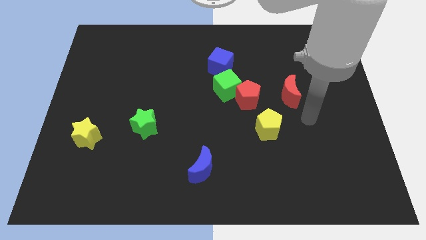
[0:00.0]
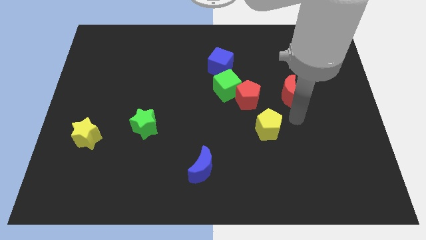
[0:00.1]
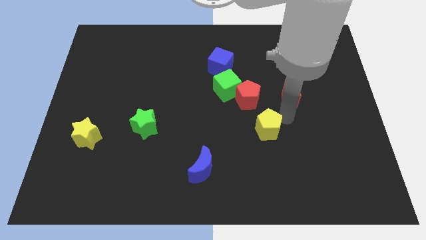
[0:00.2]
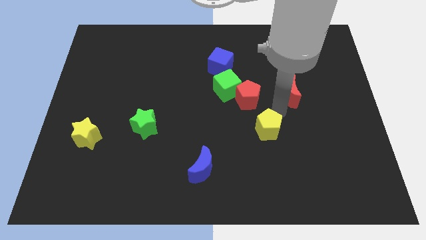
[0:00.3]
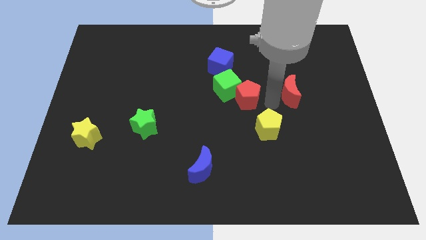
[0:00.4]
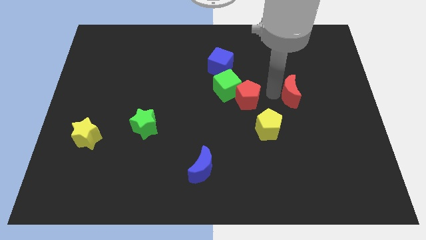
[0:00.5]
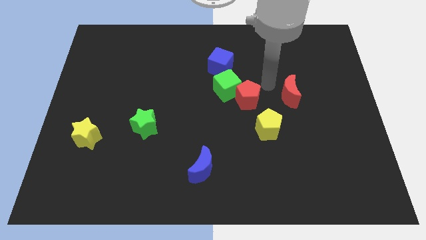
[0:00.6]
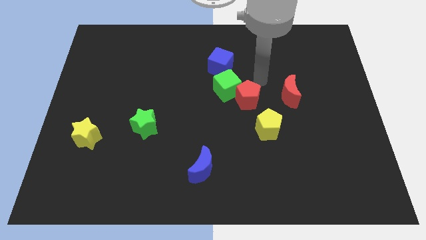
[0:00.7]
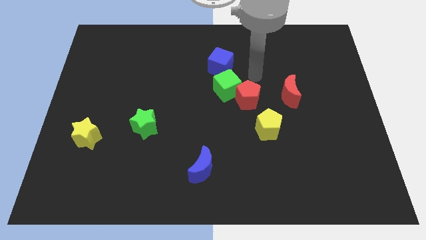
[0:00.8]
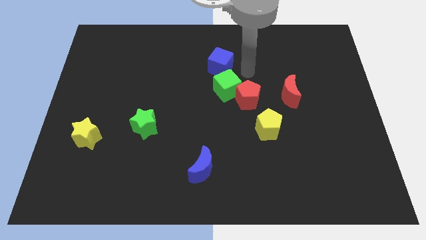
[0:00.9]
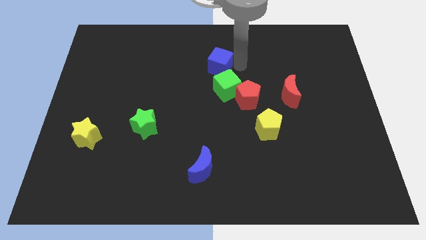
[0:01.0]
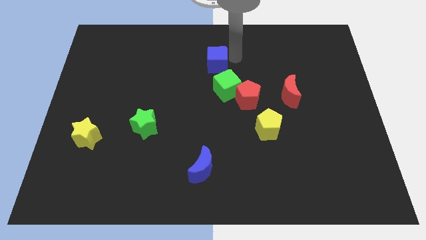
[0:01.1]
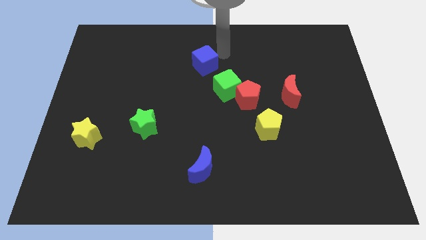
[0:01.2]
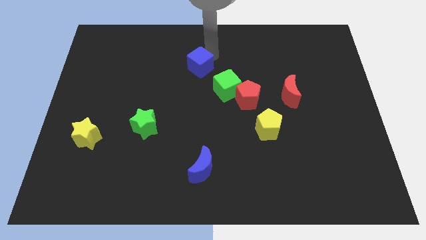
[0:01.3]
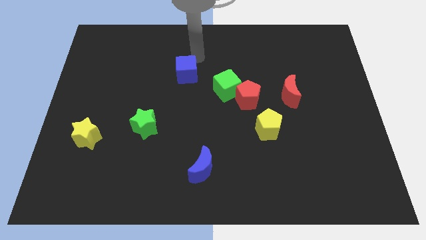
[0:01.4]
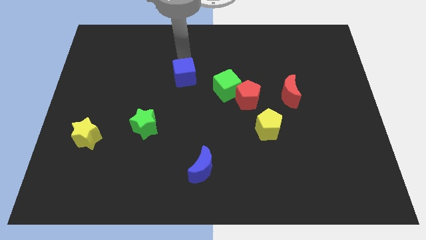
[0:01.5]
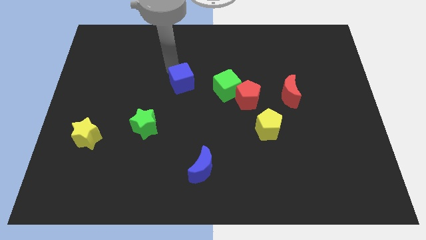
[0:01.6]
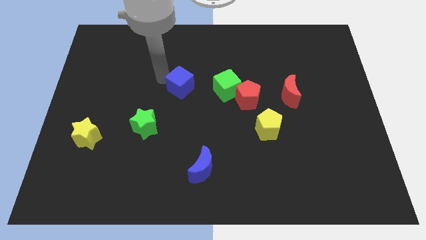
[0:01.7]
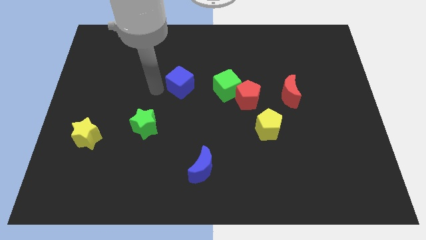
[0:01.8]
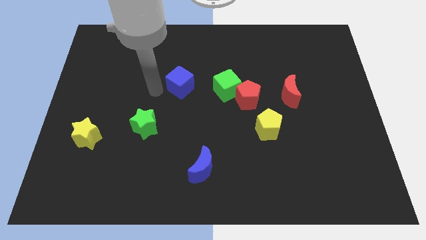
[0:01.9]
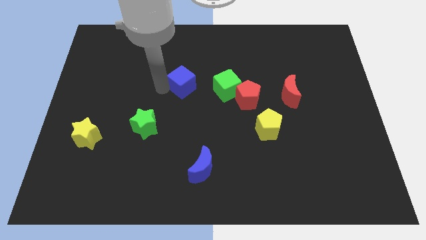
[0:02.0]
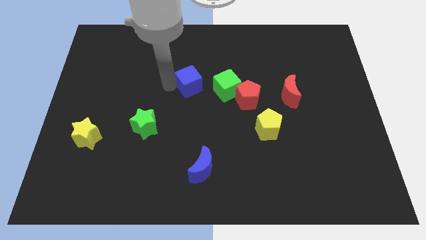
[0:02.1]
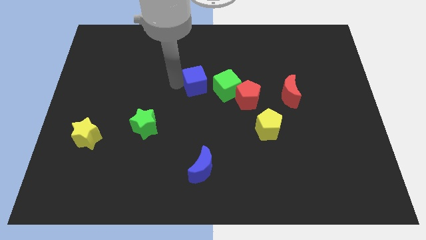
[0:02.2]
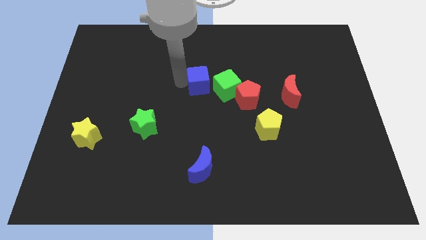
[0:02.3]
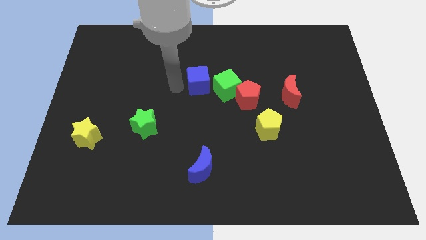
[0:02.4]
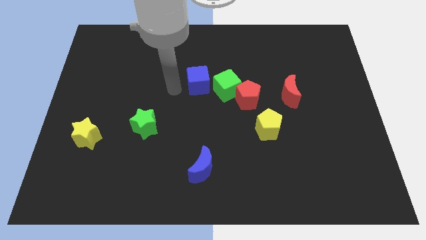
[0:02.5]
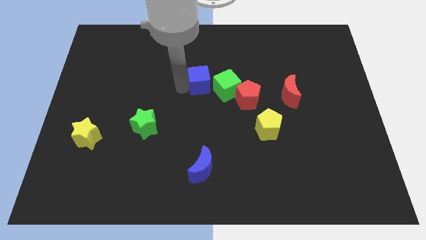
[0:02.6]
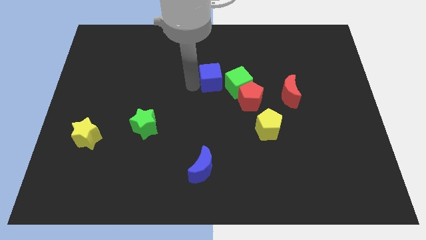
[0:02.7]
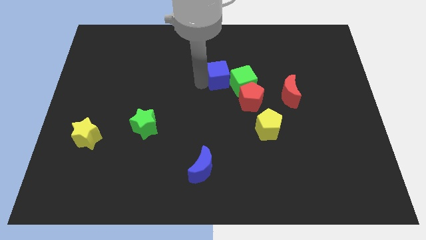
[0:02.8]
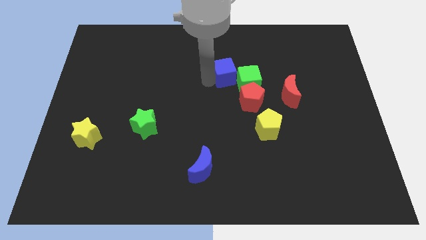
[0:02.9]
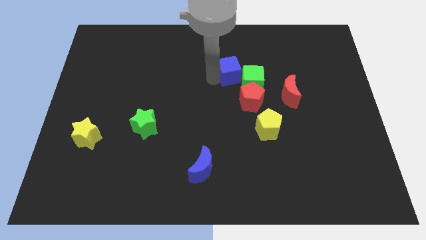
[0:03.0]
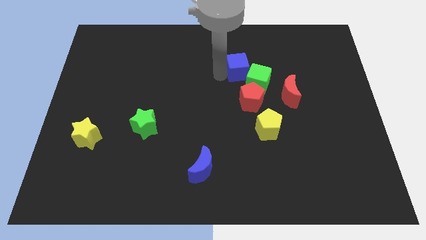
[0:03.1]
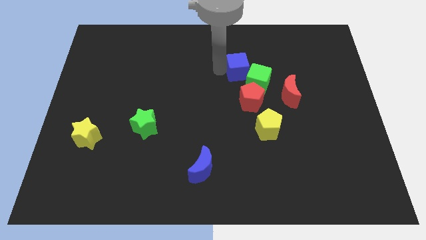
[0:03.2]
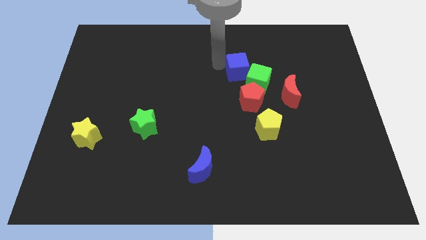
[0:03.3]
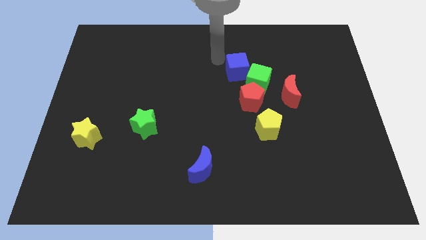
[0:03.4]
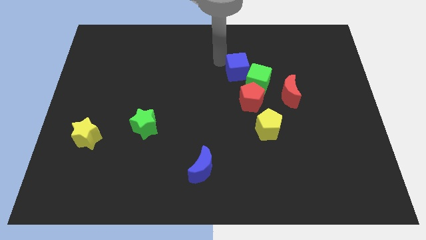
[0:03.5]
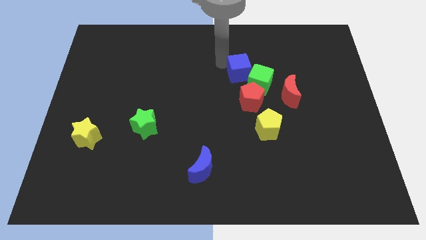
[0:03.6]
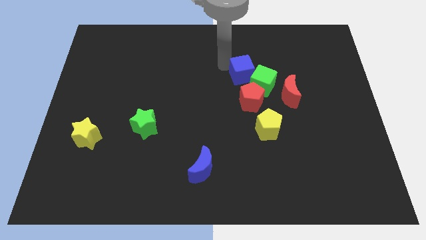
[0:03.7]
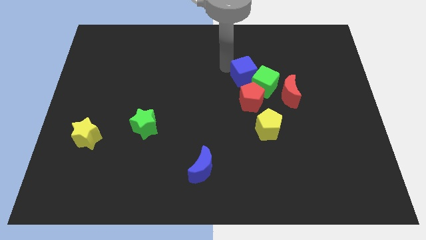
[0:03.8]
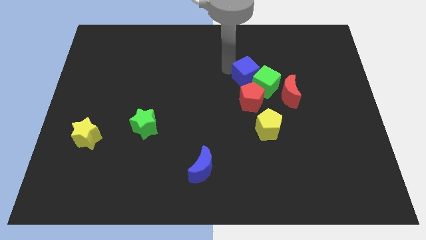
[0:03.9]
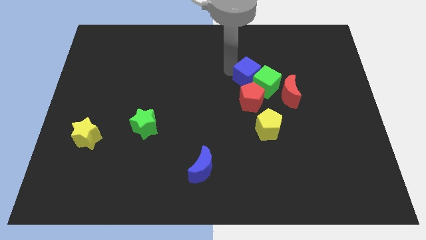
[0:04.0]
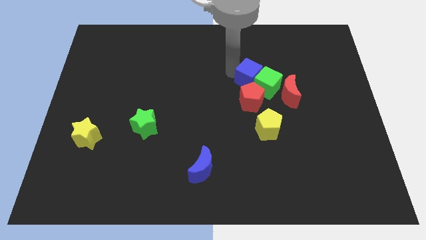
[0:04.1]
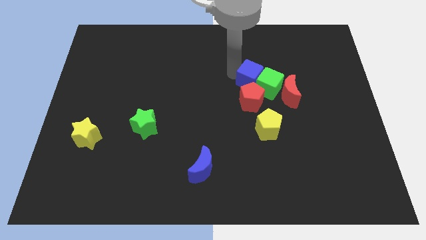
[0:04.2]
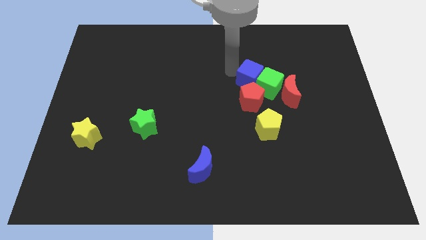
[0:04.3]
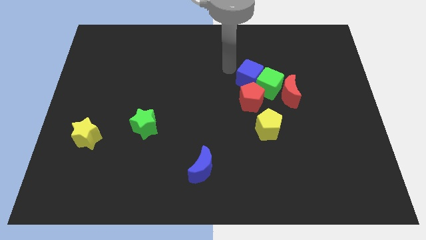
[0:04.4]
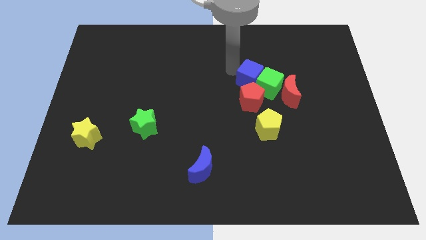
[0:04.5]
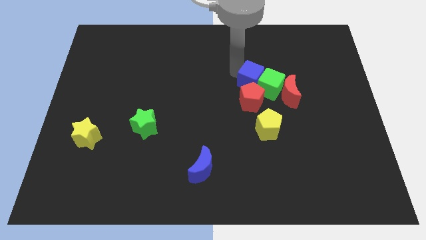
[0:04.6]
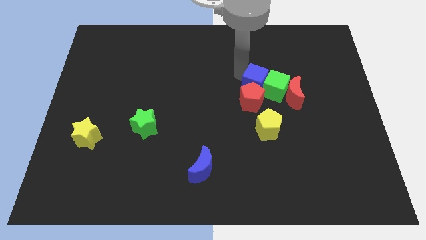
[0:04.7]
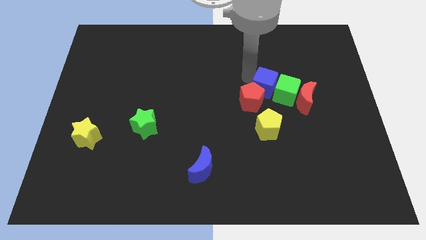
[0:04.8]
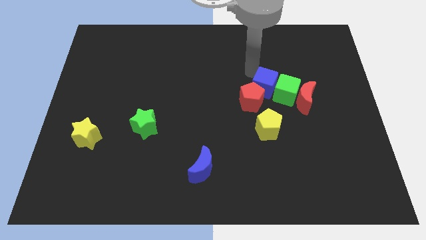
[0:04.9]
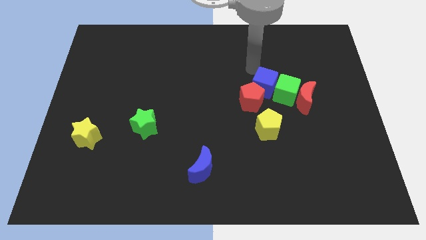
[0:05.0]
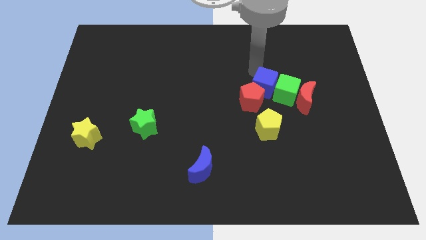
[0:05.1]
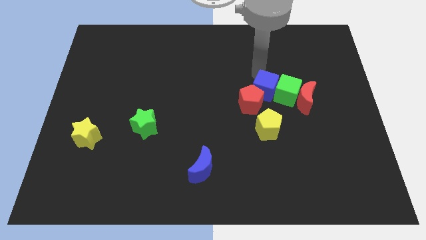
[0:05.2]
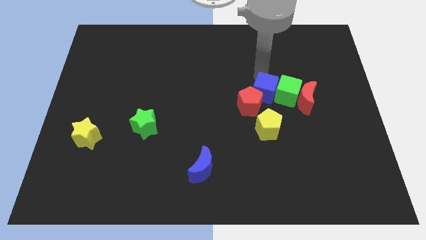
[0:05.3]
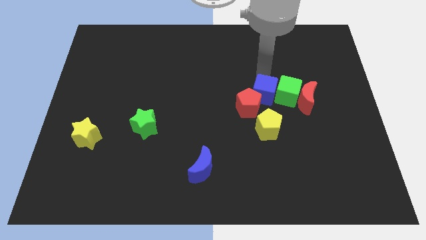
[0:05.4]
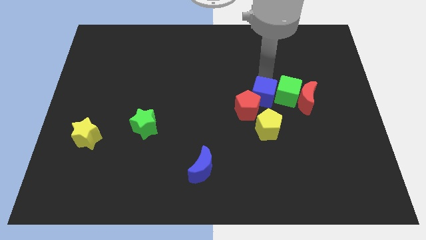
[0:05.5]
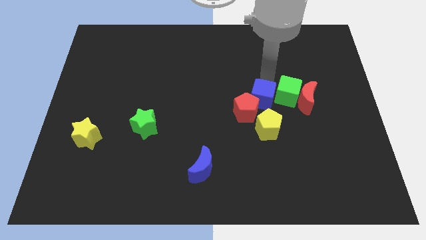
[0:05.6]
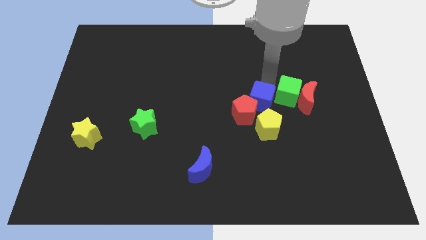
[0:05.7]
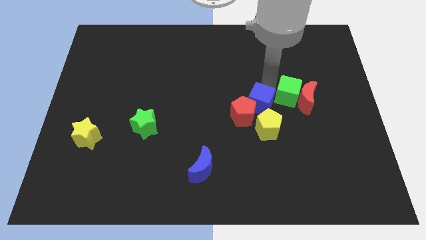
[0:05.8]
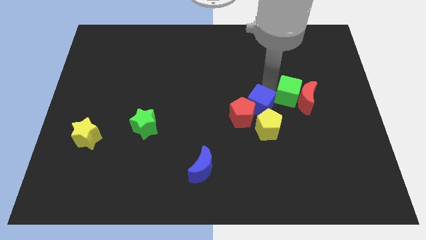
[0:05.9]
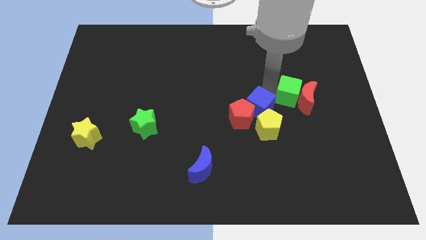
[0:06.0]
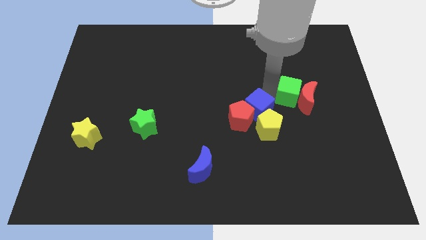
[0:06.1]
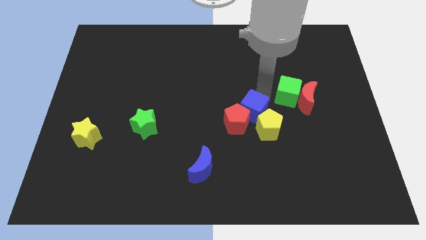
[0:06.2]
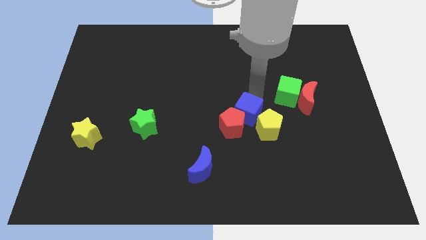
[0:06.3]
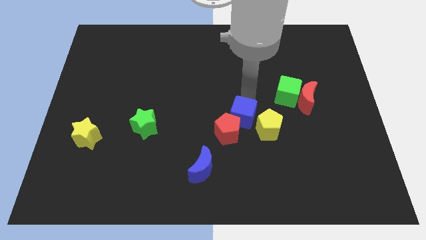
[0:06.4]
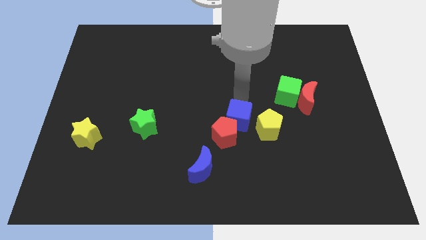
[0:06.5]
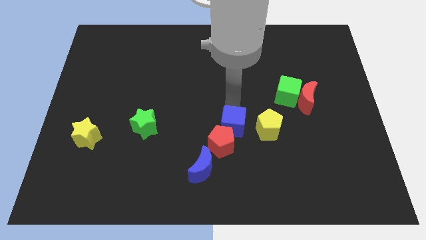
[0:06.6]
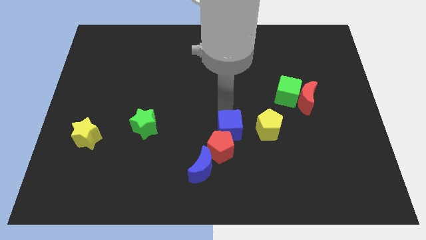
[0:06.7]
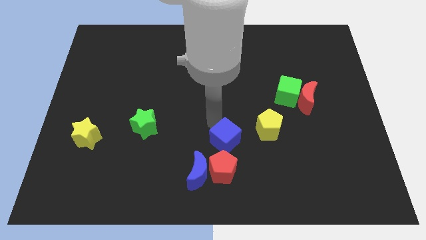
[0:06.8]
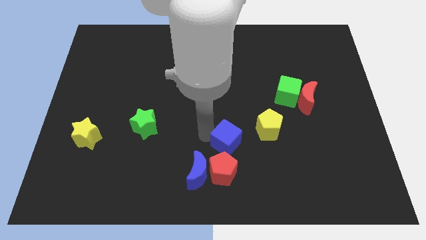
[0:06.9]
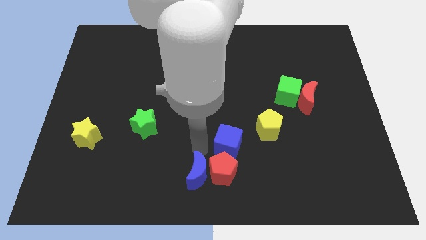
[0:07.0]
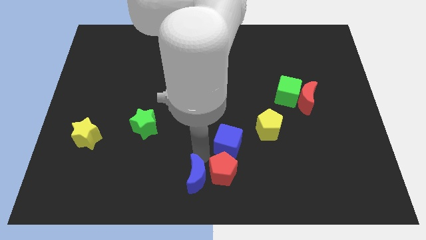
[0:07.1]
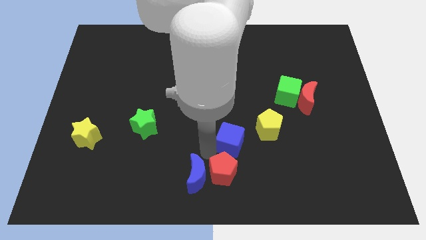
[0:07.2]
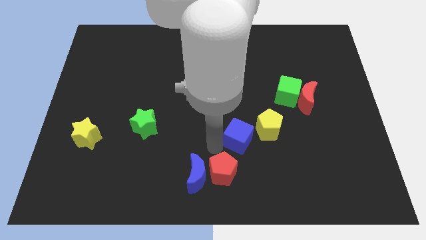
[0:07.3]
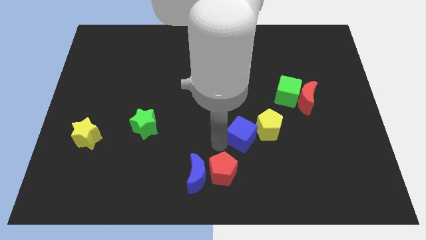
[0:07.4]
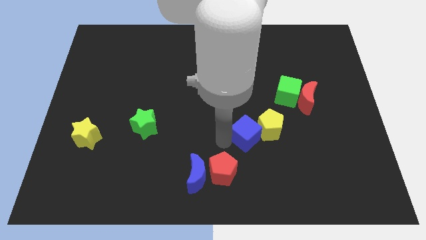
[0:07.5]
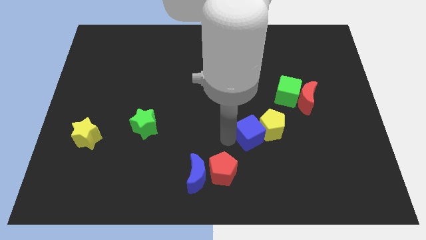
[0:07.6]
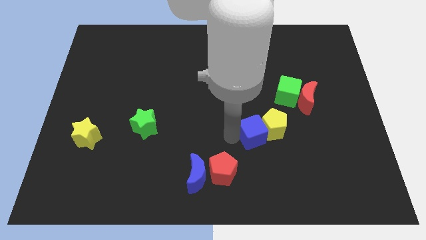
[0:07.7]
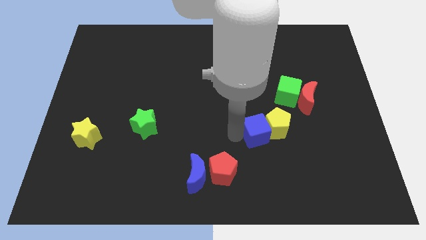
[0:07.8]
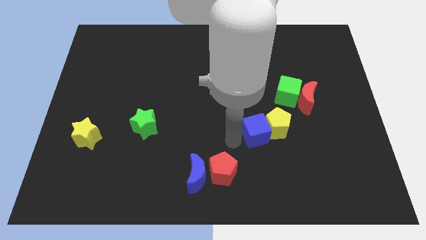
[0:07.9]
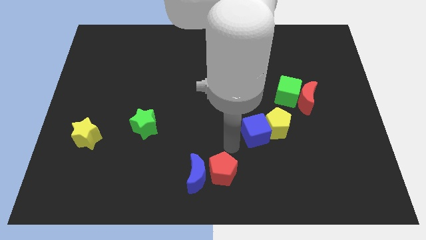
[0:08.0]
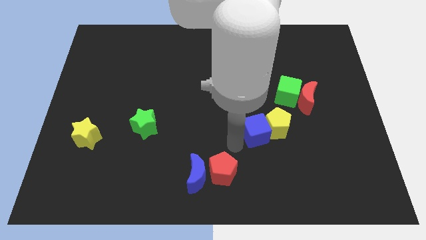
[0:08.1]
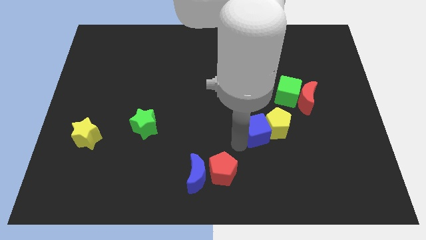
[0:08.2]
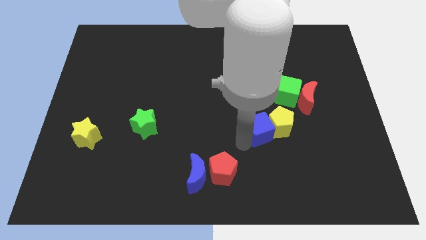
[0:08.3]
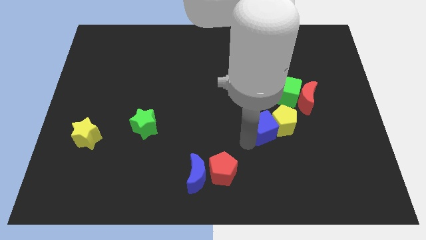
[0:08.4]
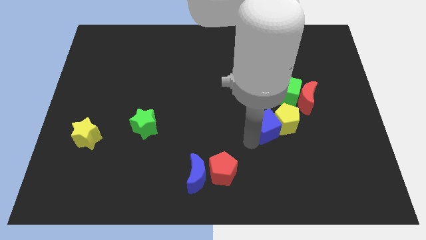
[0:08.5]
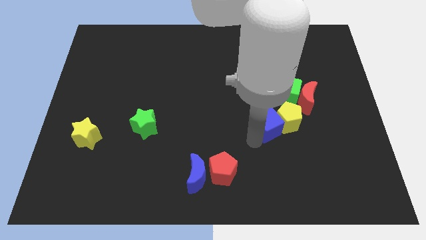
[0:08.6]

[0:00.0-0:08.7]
slide the blue cube to the bottom left of the red moon
